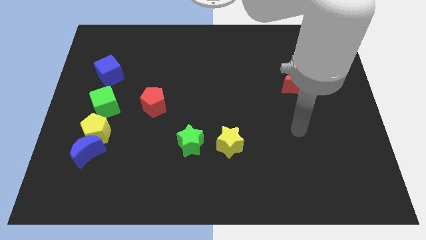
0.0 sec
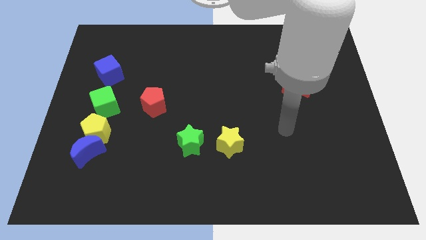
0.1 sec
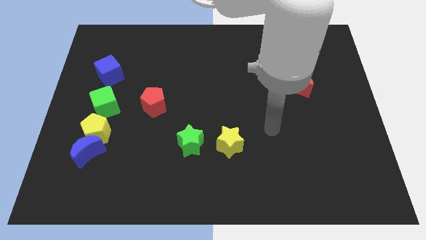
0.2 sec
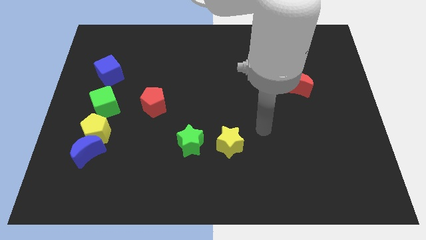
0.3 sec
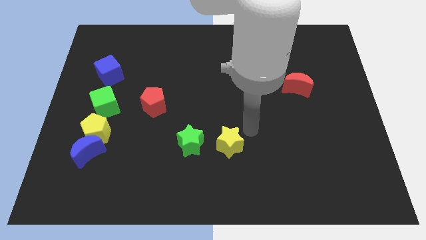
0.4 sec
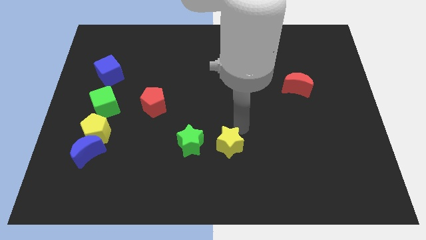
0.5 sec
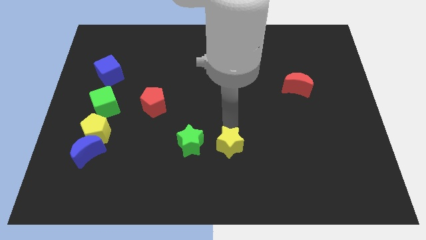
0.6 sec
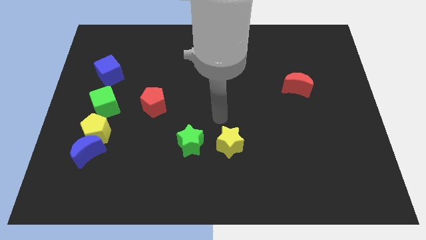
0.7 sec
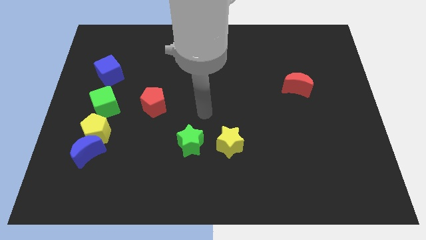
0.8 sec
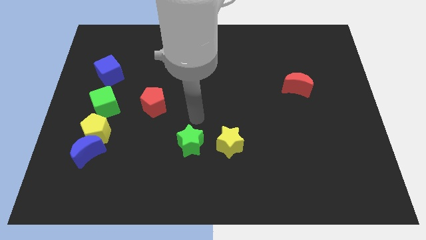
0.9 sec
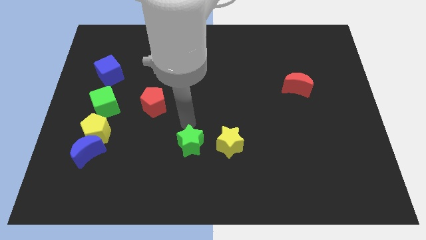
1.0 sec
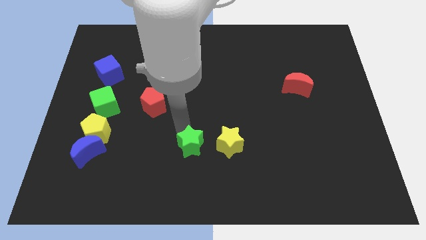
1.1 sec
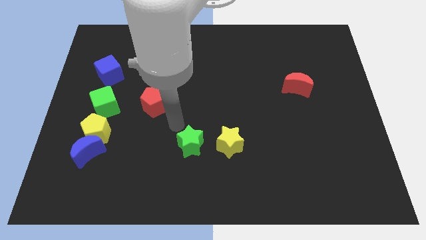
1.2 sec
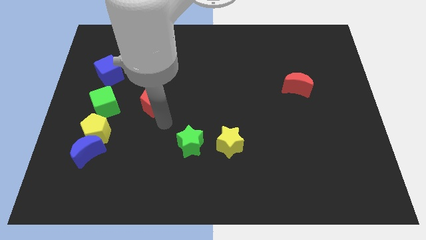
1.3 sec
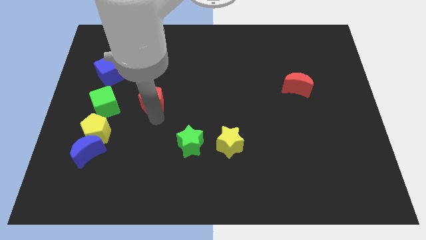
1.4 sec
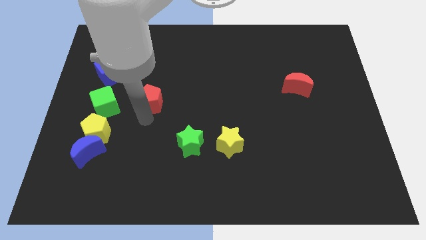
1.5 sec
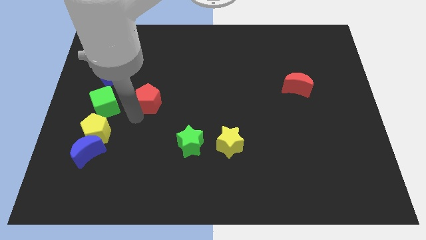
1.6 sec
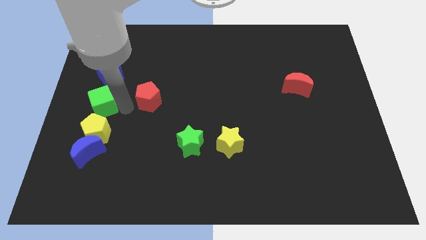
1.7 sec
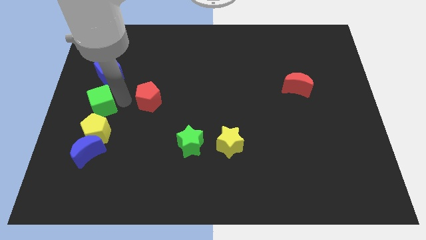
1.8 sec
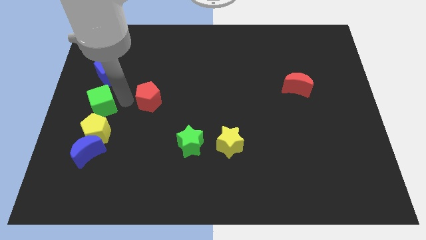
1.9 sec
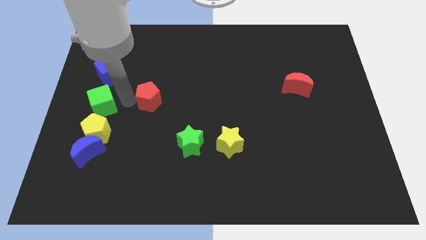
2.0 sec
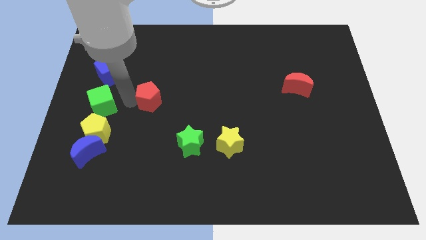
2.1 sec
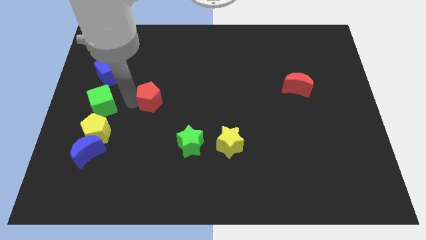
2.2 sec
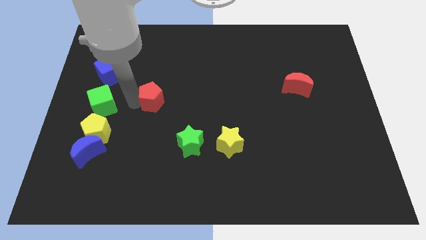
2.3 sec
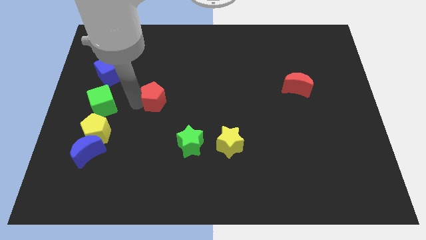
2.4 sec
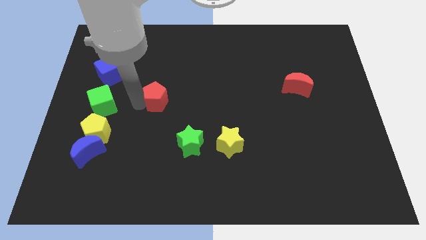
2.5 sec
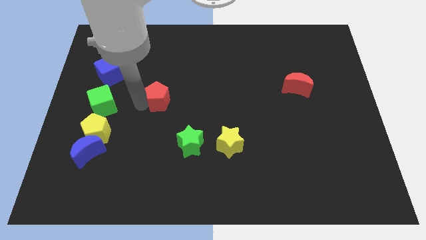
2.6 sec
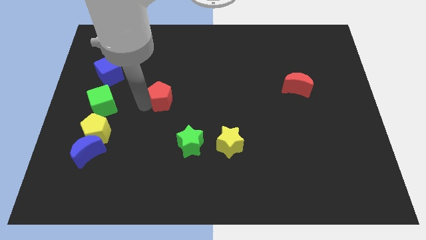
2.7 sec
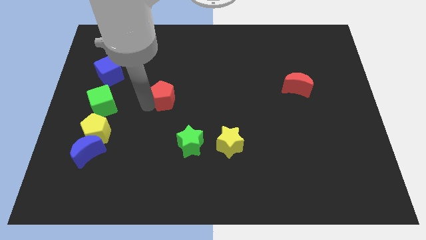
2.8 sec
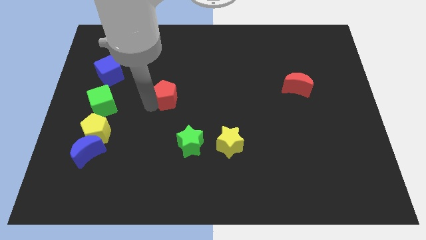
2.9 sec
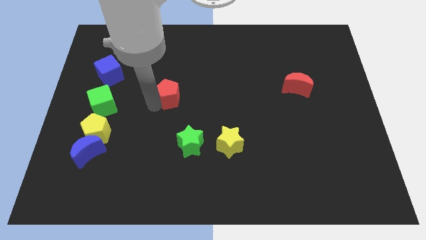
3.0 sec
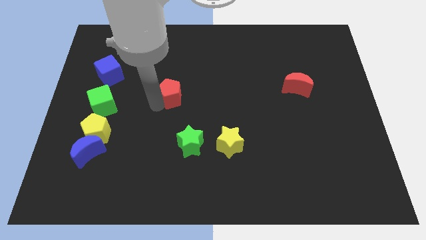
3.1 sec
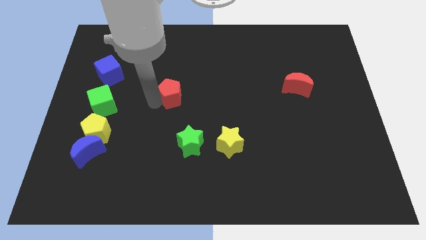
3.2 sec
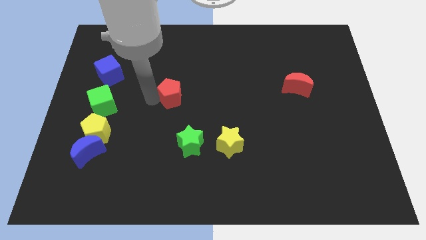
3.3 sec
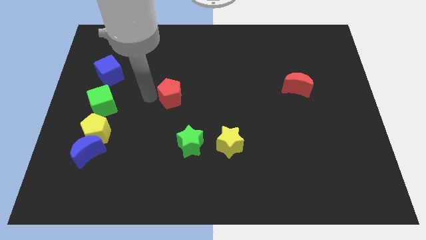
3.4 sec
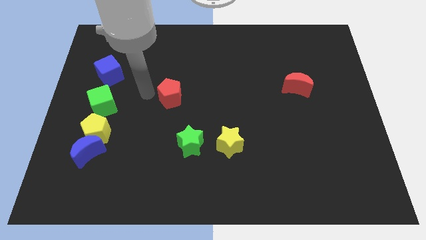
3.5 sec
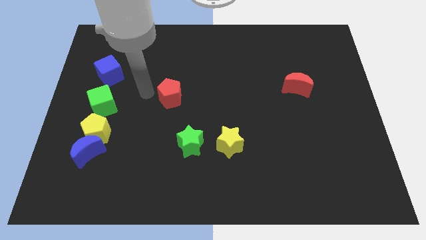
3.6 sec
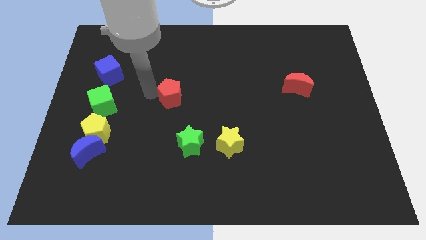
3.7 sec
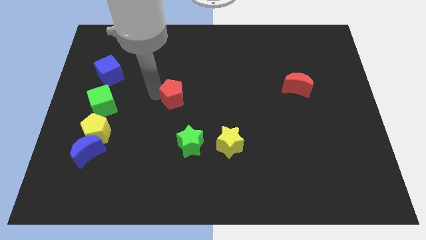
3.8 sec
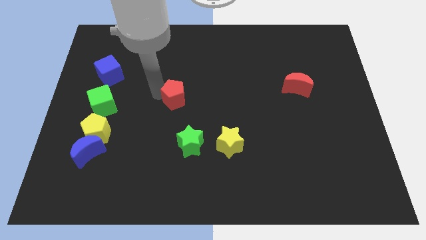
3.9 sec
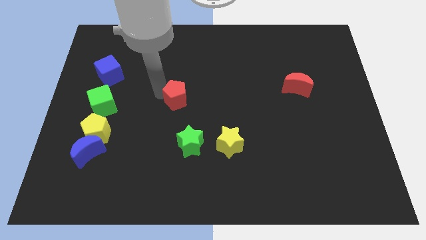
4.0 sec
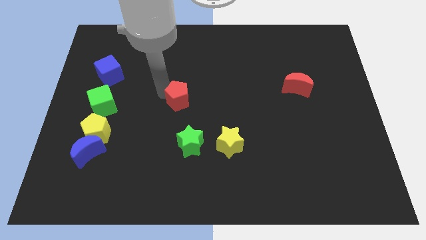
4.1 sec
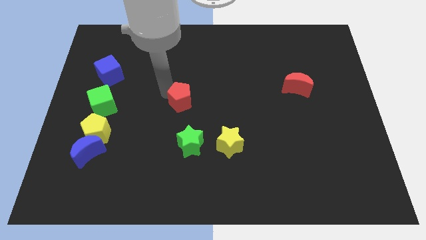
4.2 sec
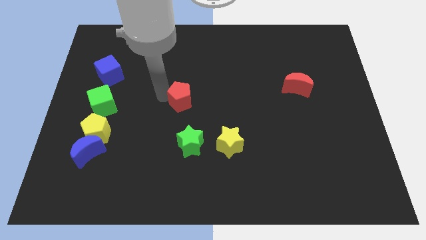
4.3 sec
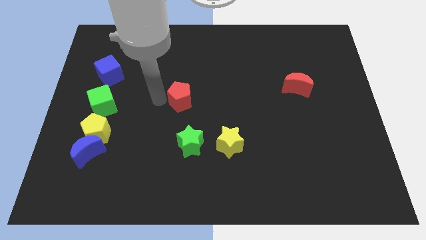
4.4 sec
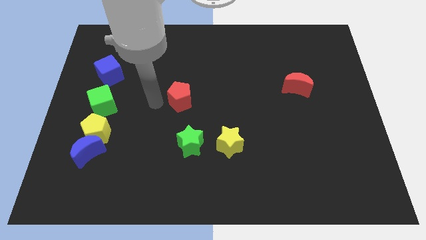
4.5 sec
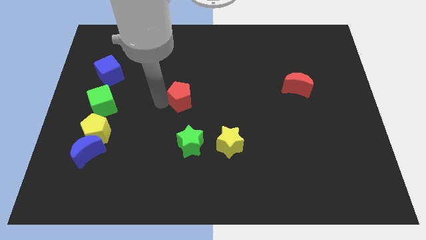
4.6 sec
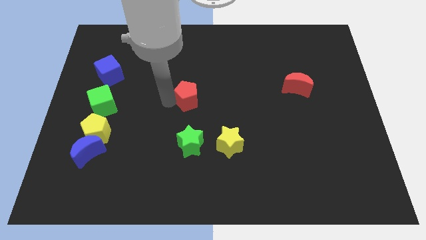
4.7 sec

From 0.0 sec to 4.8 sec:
move the red pentagon a little right

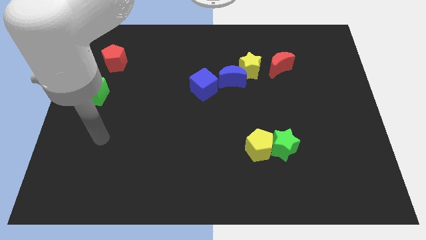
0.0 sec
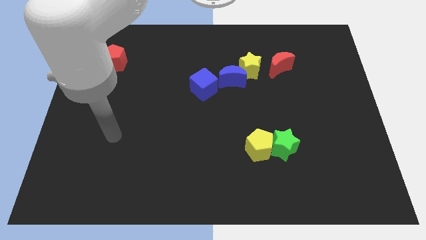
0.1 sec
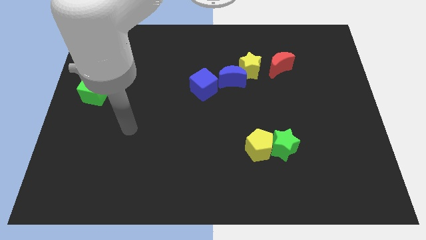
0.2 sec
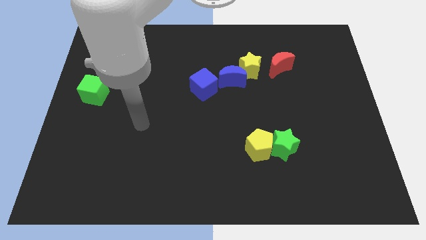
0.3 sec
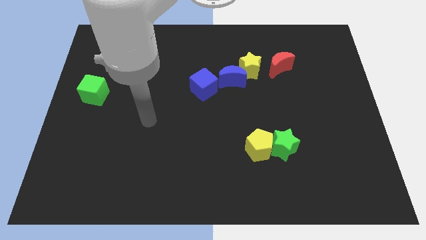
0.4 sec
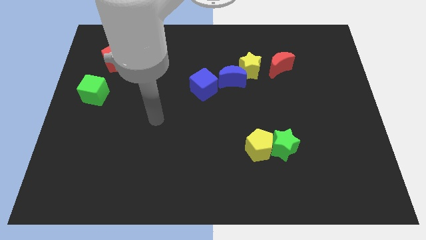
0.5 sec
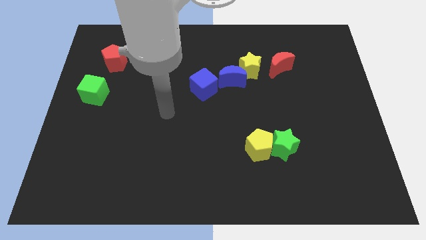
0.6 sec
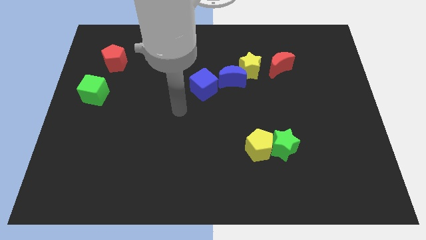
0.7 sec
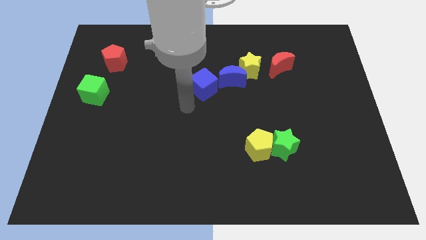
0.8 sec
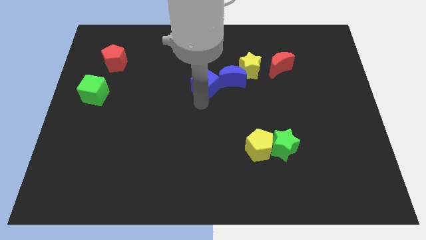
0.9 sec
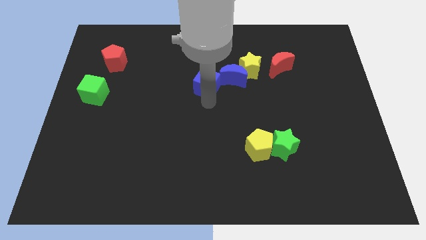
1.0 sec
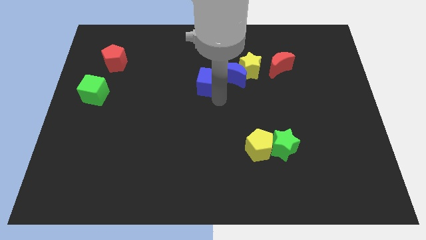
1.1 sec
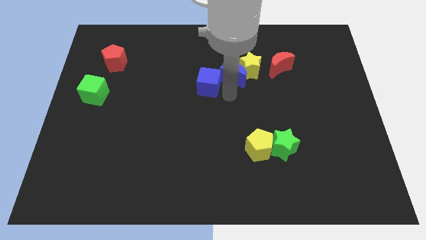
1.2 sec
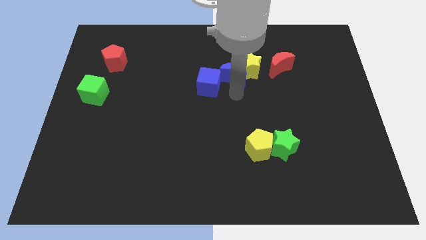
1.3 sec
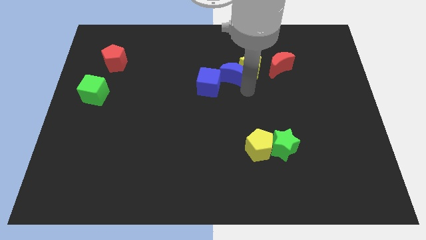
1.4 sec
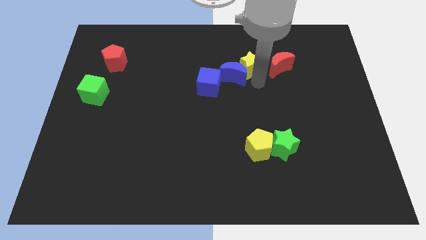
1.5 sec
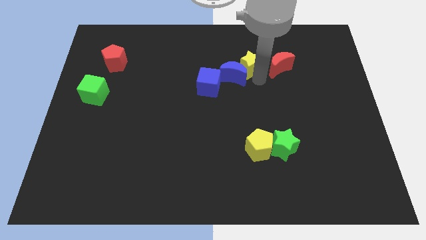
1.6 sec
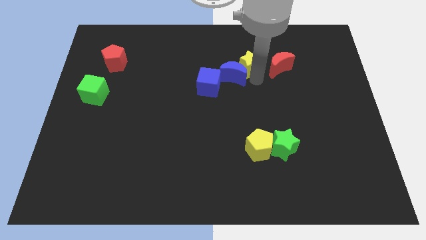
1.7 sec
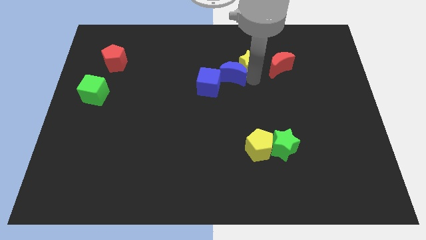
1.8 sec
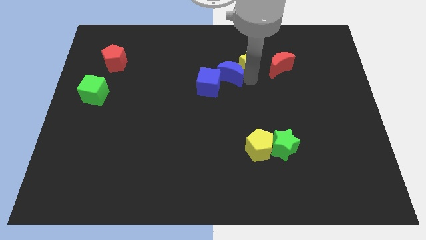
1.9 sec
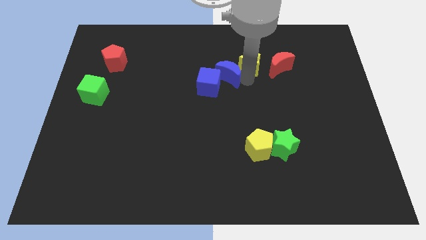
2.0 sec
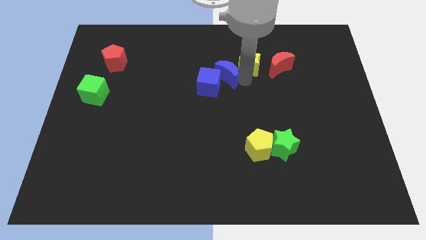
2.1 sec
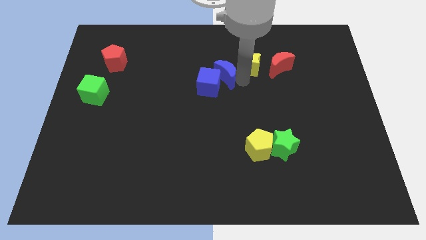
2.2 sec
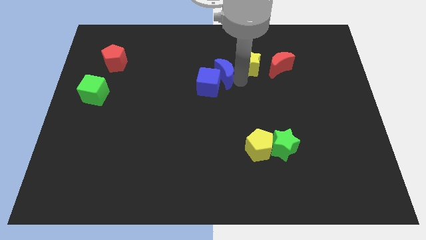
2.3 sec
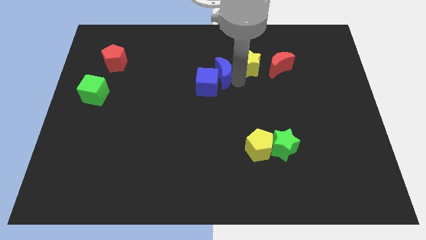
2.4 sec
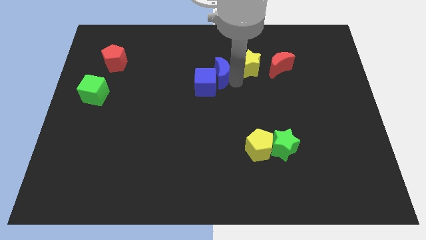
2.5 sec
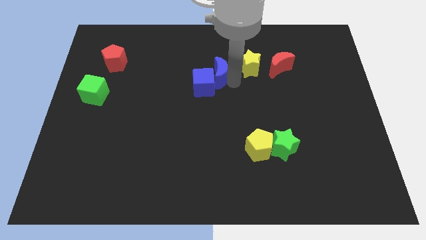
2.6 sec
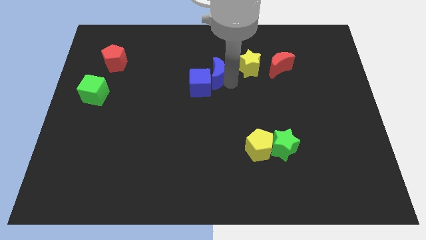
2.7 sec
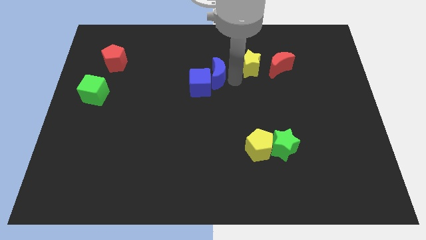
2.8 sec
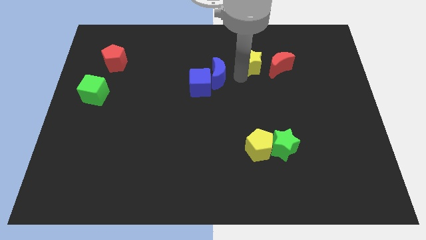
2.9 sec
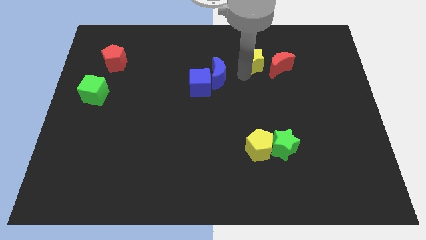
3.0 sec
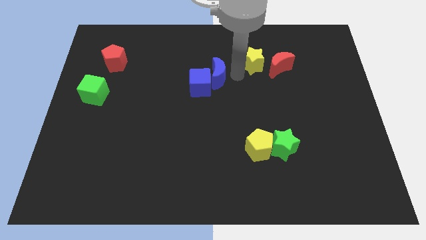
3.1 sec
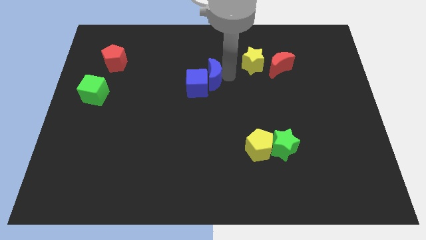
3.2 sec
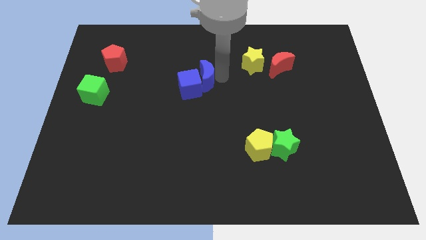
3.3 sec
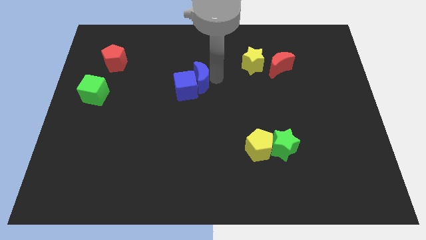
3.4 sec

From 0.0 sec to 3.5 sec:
slightly move the blue moon left
